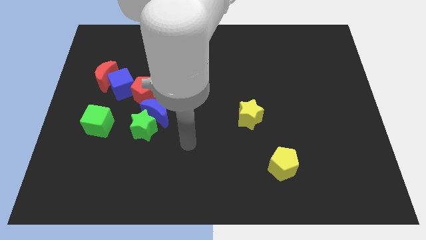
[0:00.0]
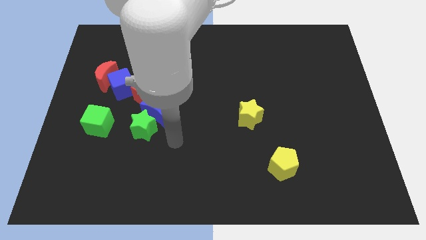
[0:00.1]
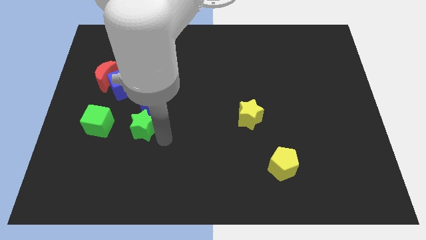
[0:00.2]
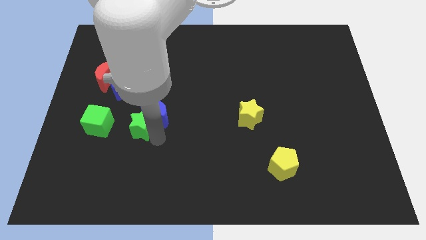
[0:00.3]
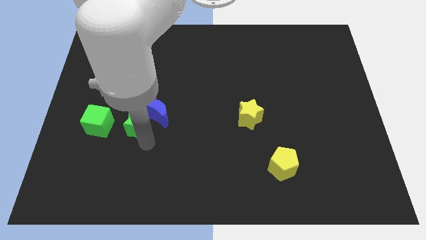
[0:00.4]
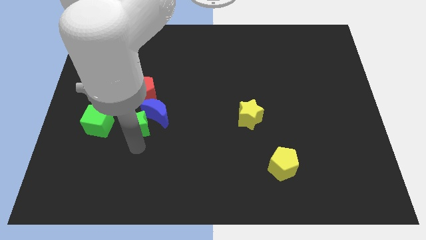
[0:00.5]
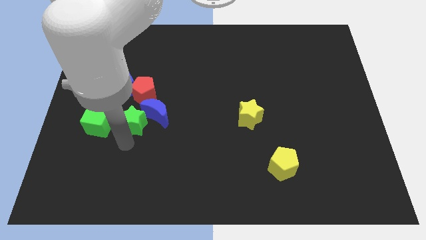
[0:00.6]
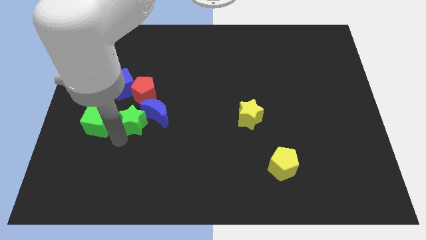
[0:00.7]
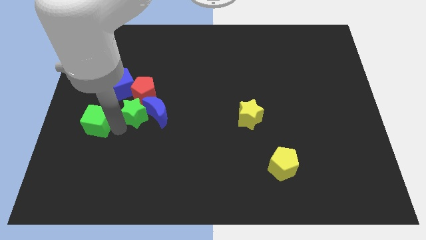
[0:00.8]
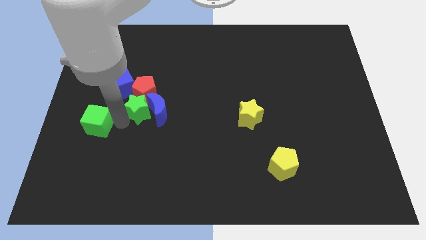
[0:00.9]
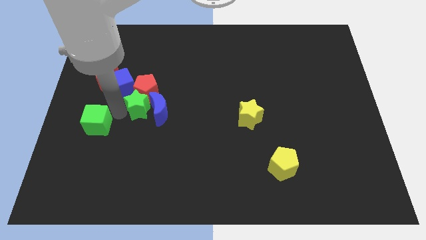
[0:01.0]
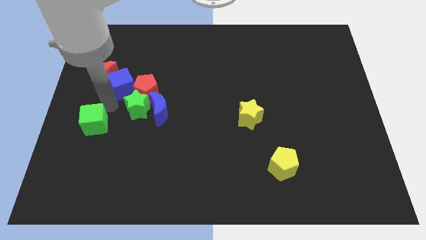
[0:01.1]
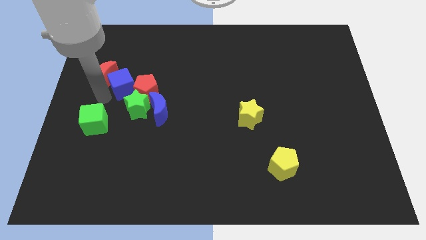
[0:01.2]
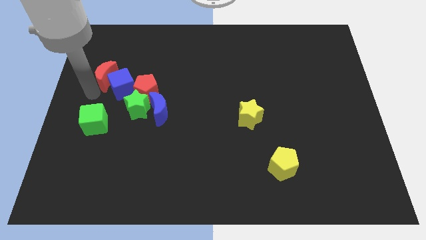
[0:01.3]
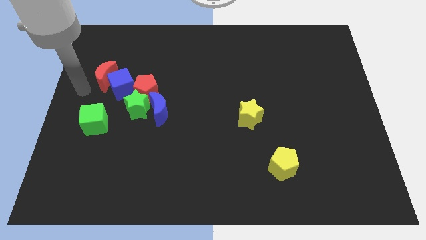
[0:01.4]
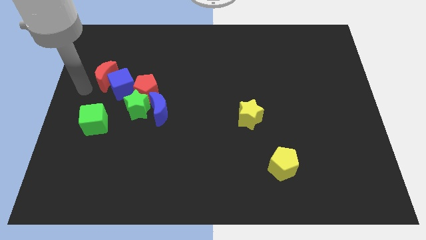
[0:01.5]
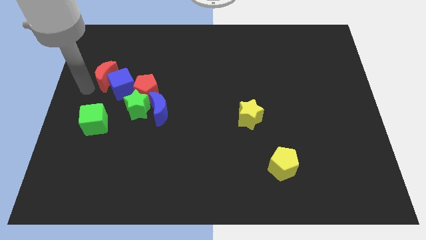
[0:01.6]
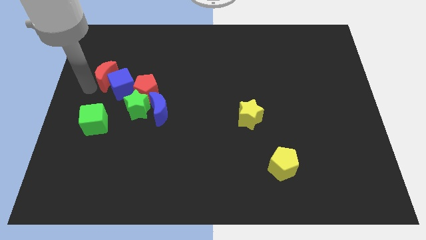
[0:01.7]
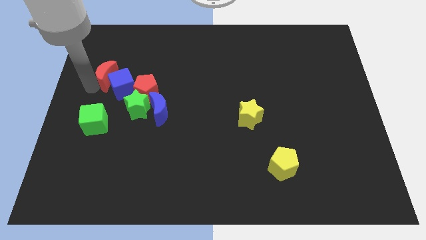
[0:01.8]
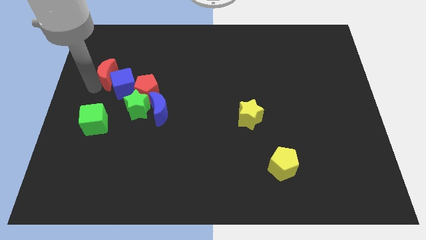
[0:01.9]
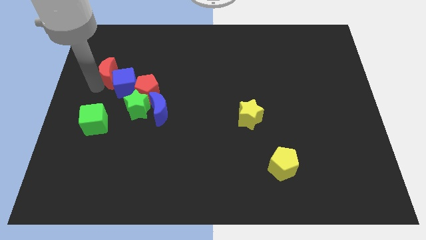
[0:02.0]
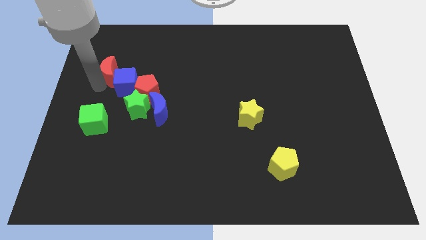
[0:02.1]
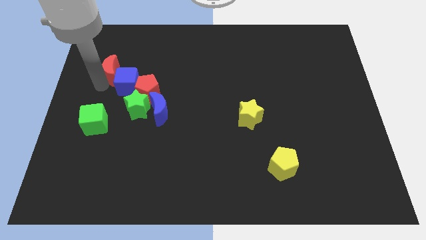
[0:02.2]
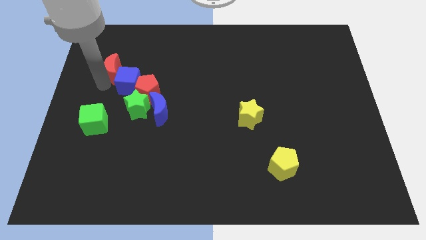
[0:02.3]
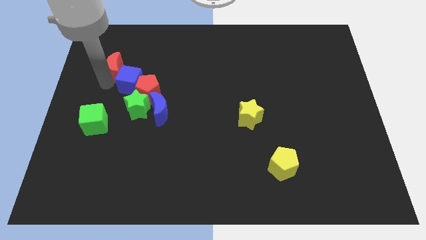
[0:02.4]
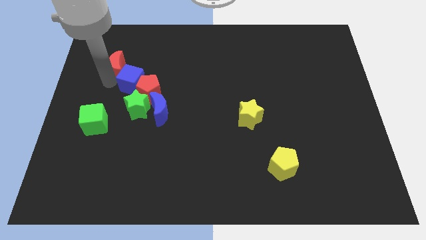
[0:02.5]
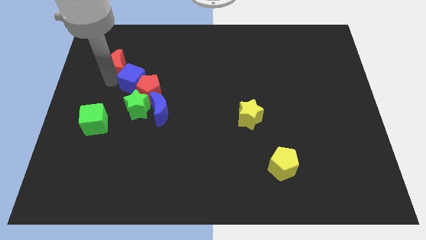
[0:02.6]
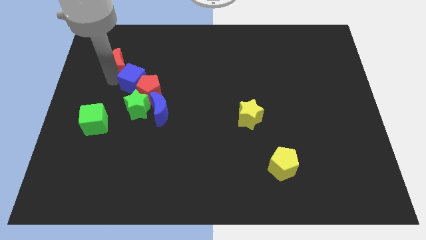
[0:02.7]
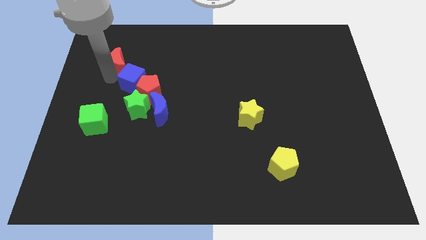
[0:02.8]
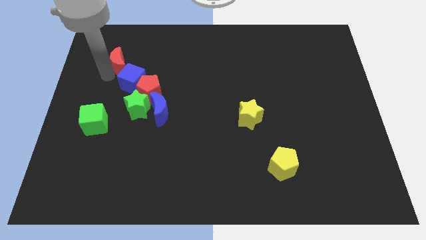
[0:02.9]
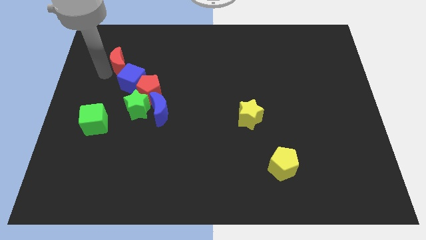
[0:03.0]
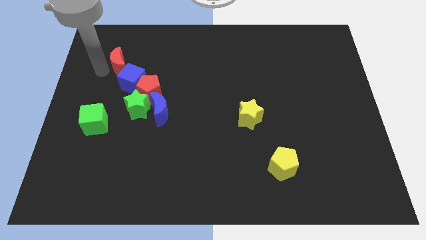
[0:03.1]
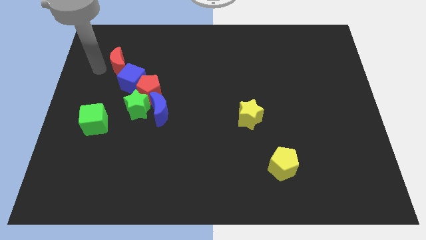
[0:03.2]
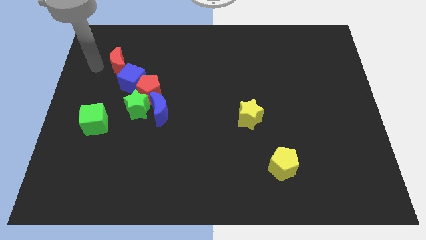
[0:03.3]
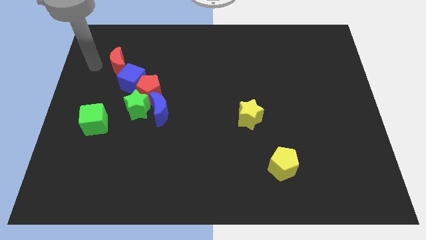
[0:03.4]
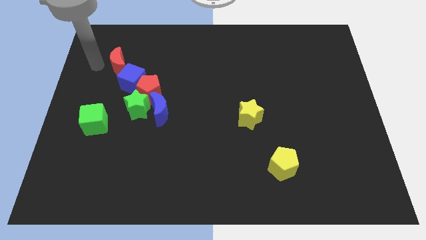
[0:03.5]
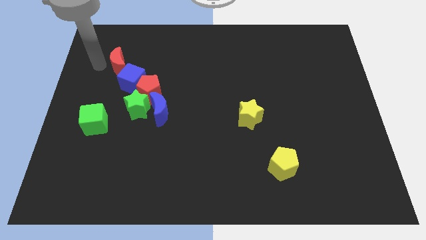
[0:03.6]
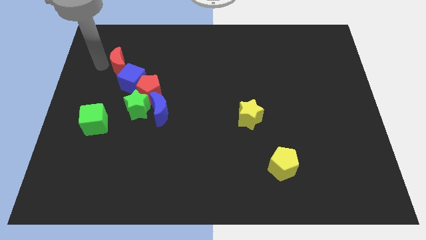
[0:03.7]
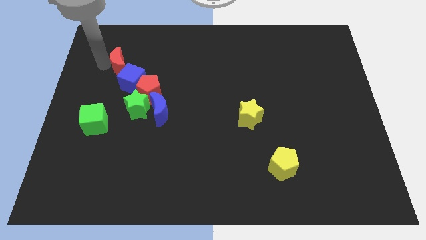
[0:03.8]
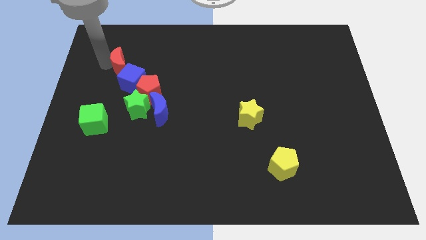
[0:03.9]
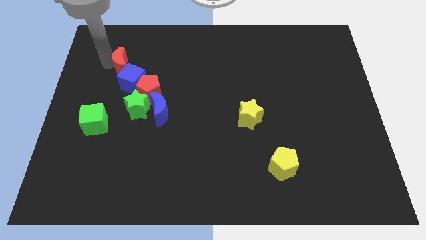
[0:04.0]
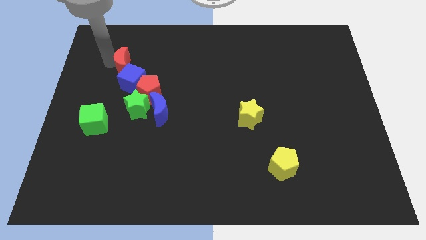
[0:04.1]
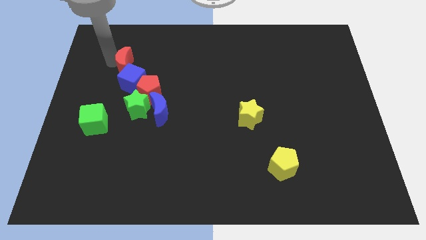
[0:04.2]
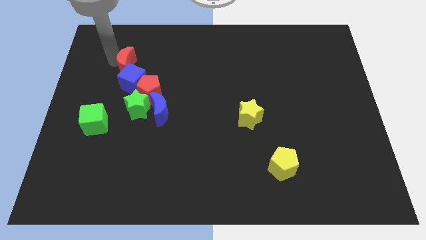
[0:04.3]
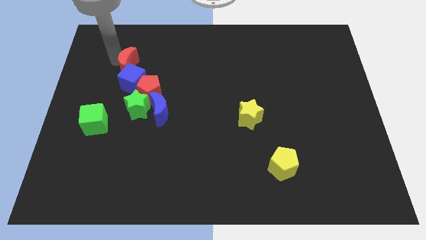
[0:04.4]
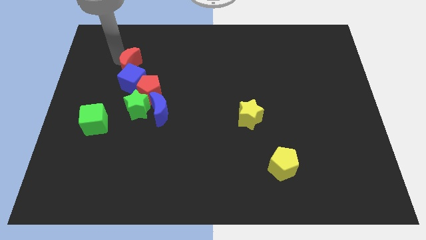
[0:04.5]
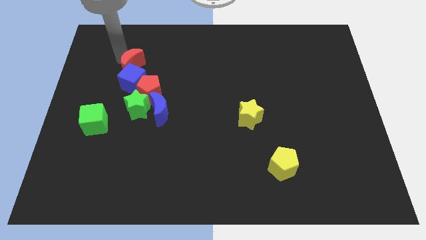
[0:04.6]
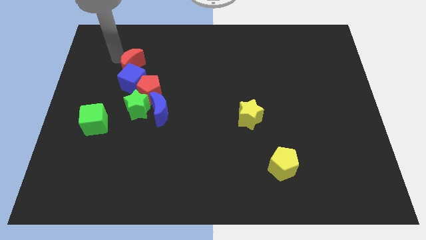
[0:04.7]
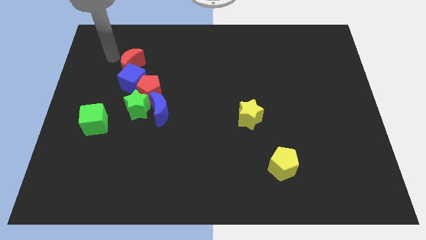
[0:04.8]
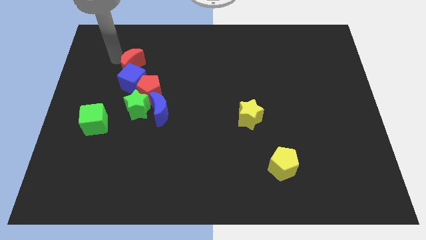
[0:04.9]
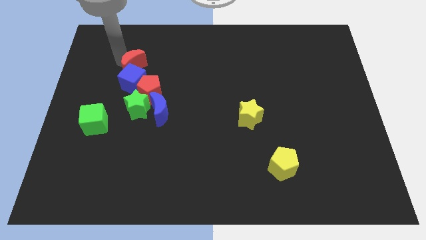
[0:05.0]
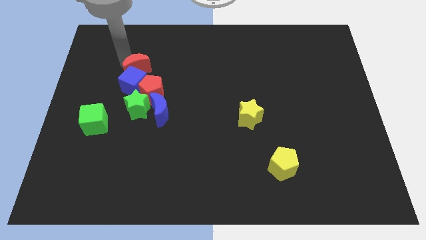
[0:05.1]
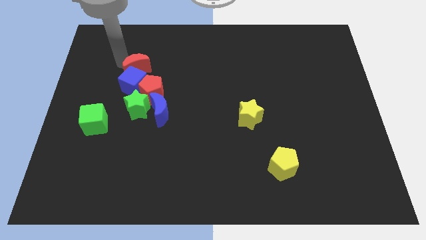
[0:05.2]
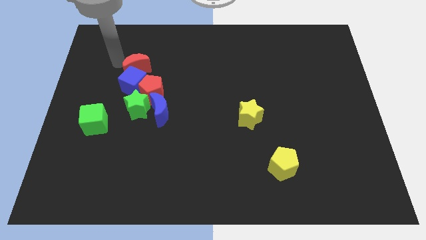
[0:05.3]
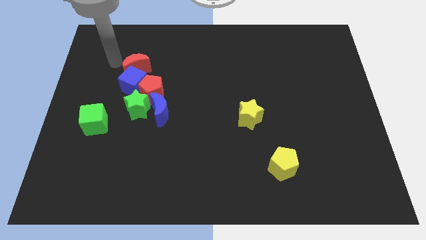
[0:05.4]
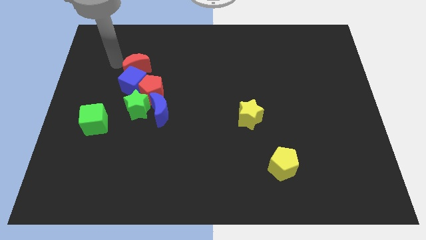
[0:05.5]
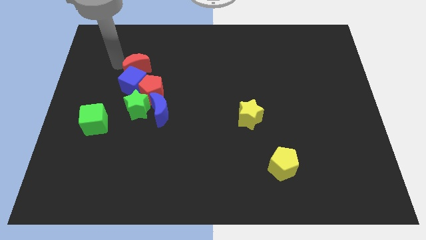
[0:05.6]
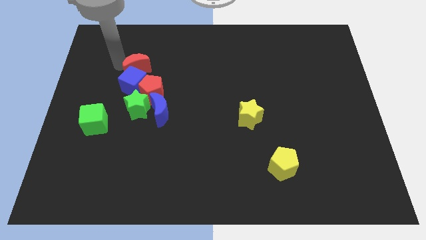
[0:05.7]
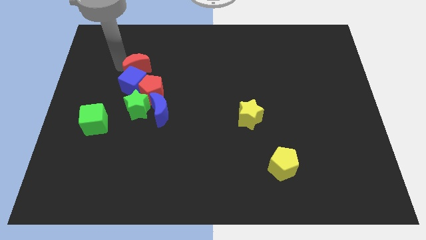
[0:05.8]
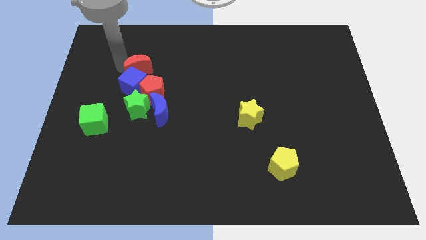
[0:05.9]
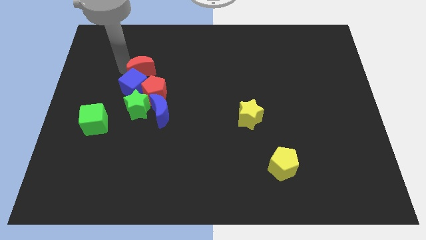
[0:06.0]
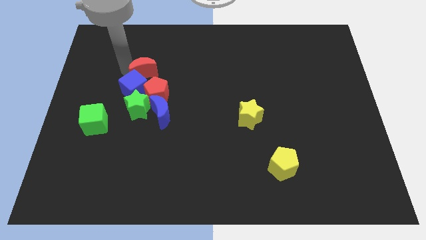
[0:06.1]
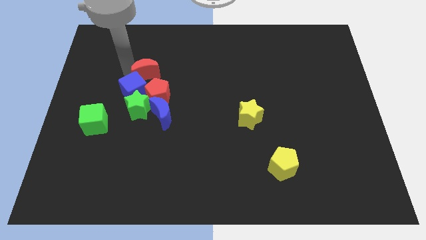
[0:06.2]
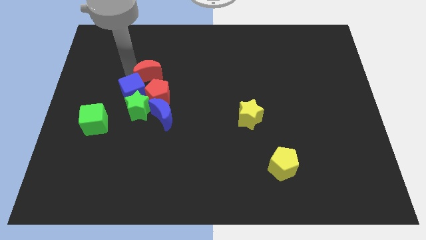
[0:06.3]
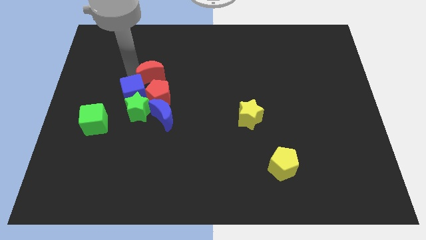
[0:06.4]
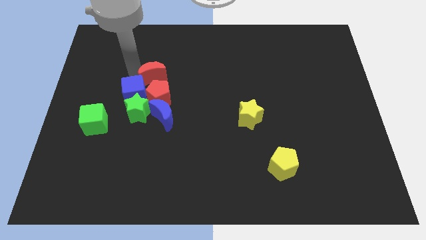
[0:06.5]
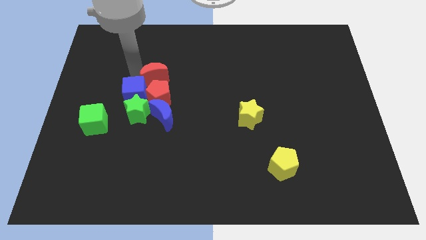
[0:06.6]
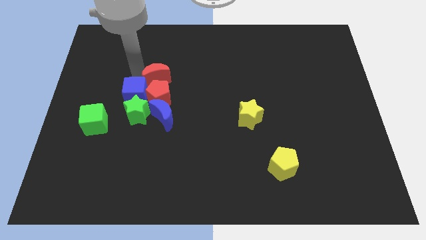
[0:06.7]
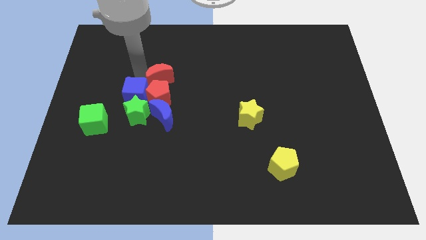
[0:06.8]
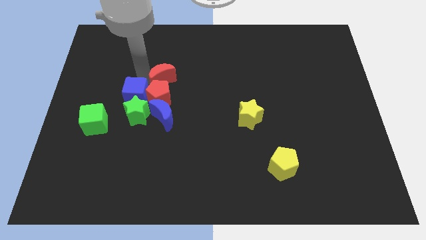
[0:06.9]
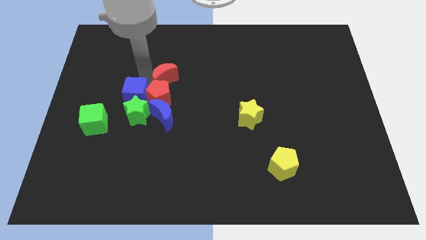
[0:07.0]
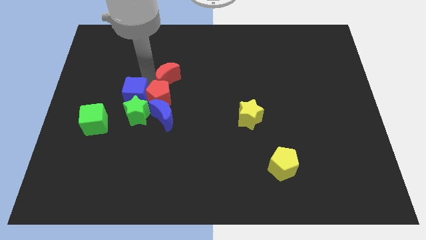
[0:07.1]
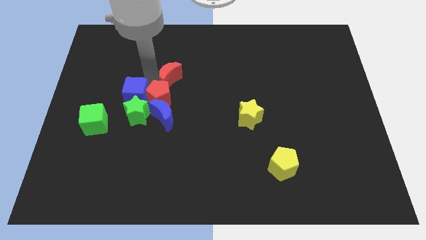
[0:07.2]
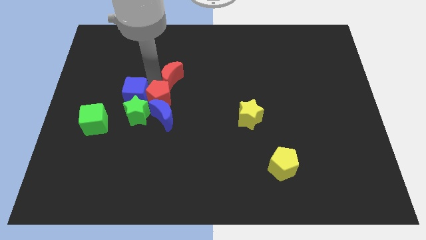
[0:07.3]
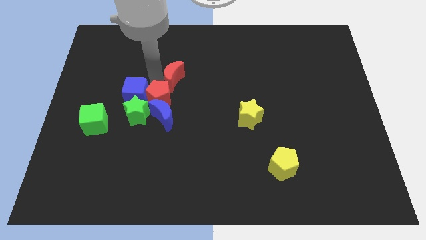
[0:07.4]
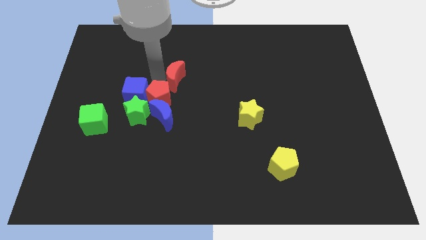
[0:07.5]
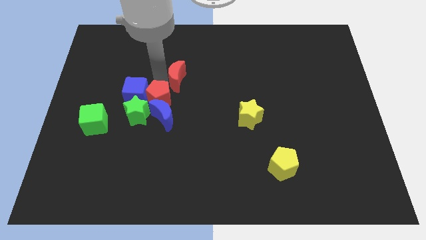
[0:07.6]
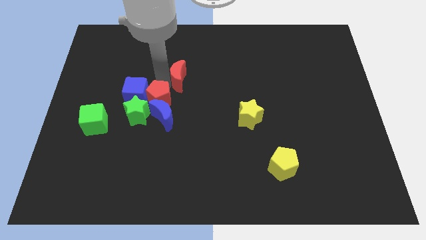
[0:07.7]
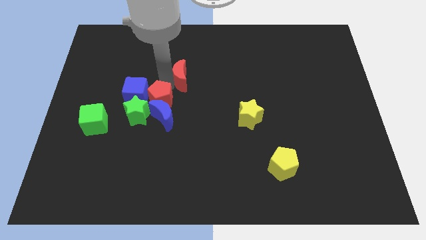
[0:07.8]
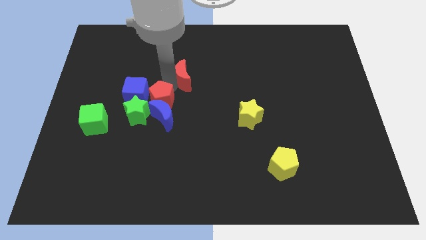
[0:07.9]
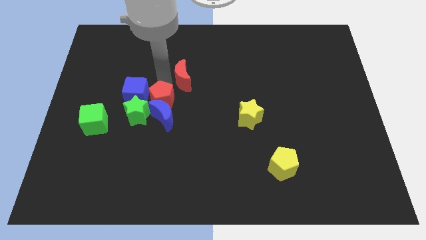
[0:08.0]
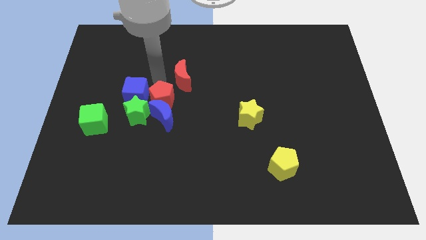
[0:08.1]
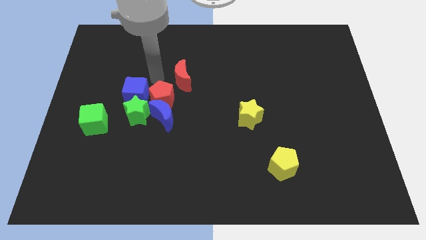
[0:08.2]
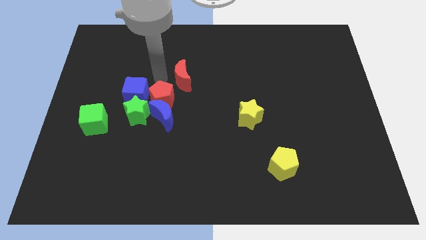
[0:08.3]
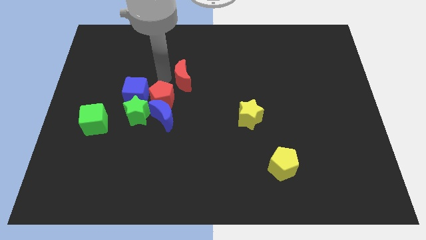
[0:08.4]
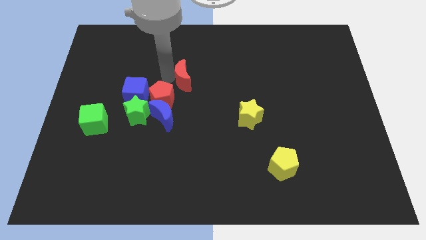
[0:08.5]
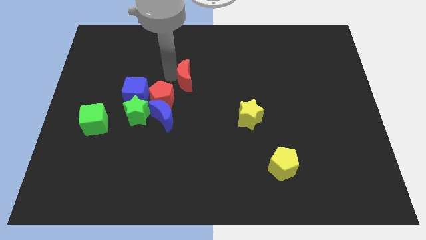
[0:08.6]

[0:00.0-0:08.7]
slide the red moon right
